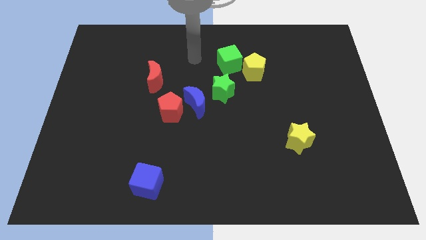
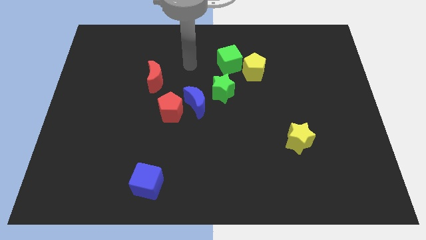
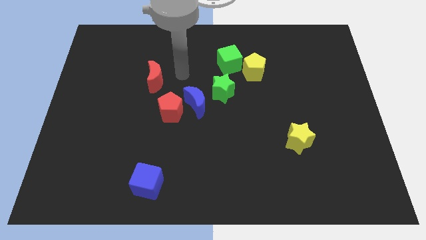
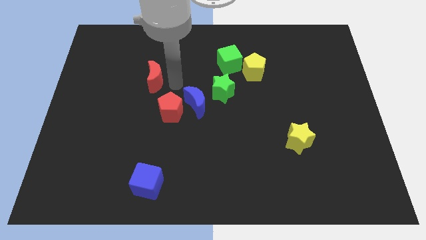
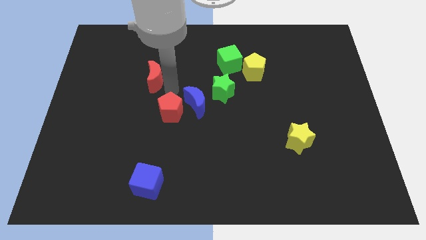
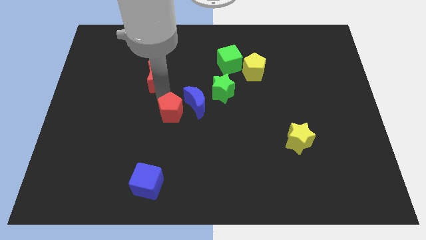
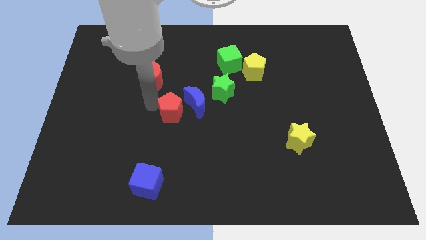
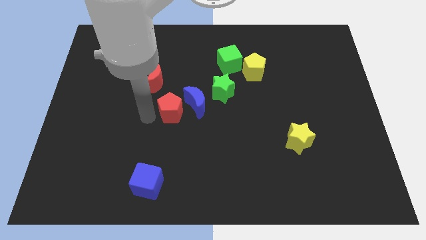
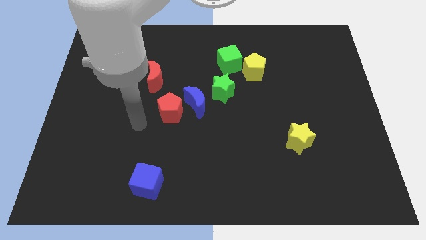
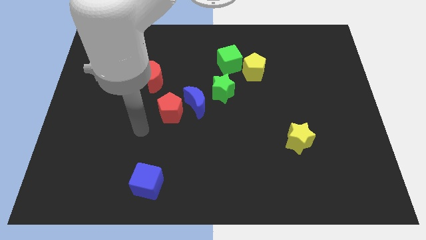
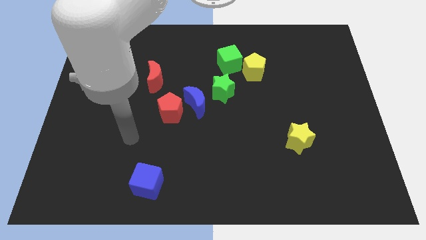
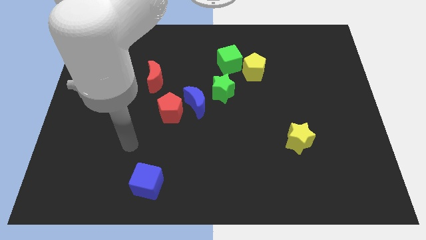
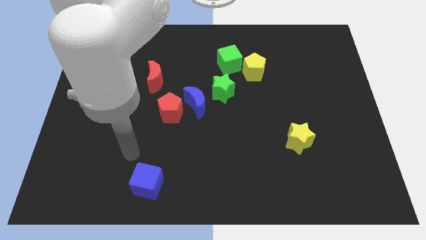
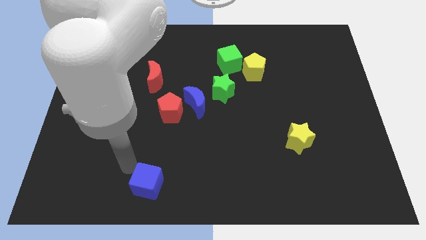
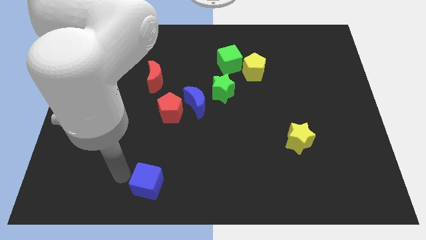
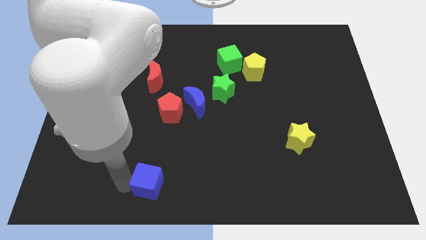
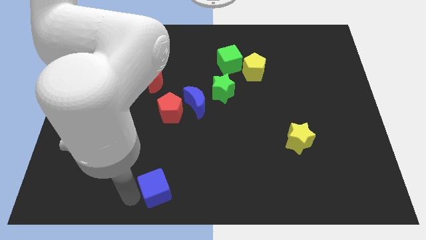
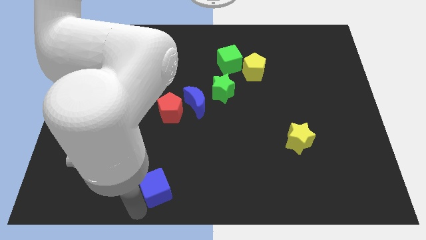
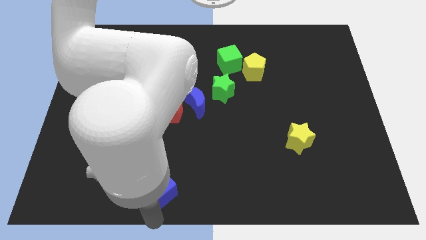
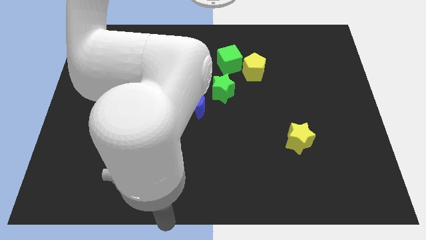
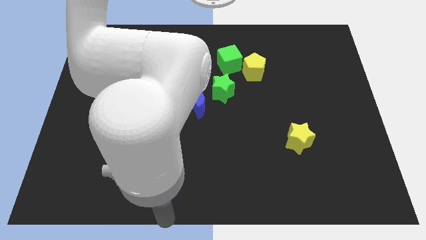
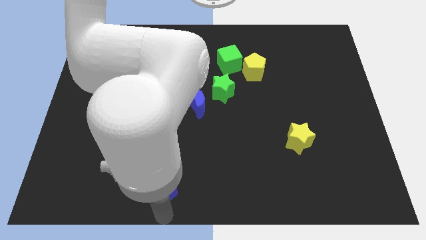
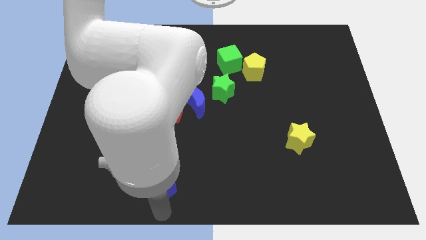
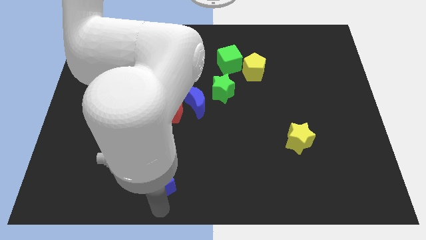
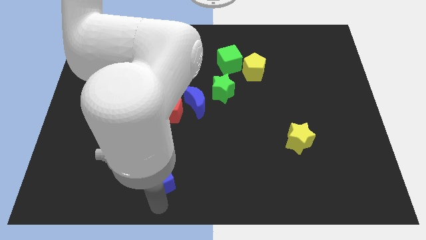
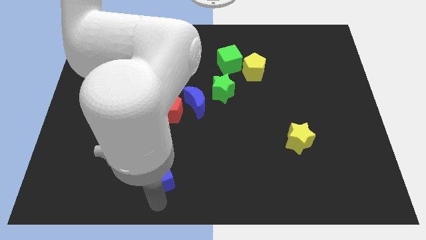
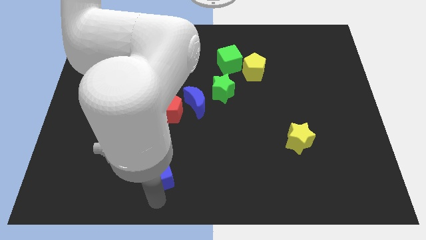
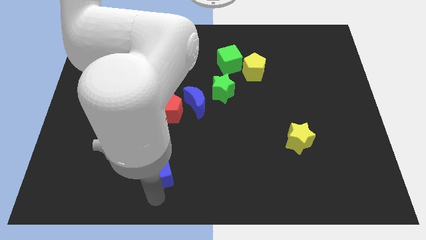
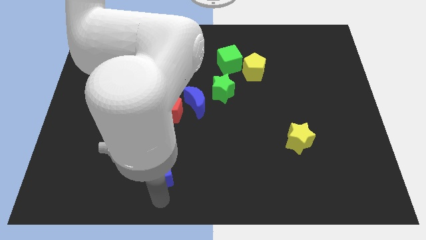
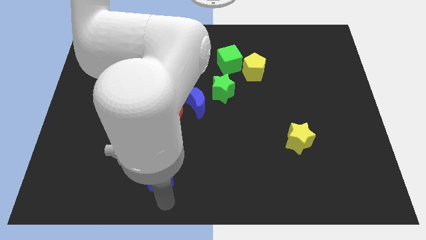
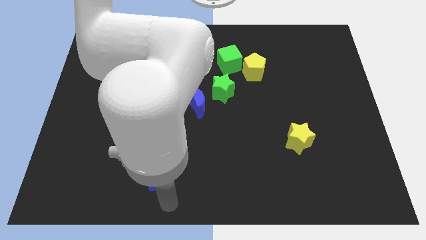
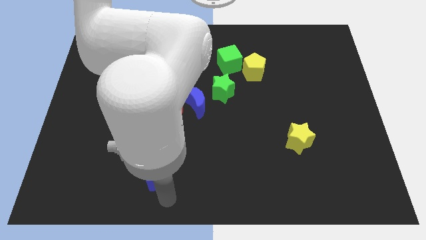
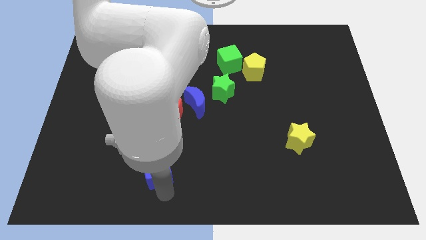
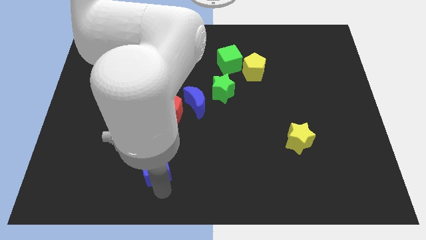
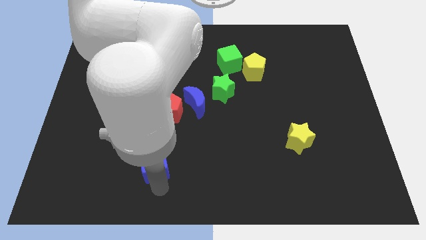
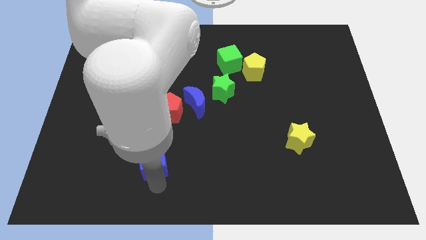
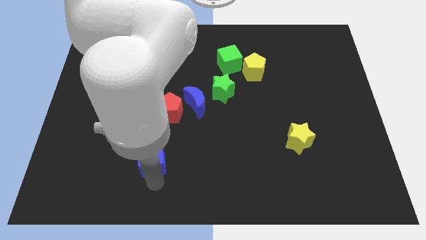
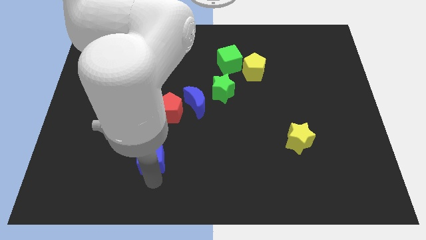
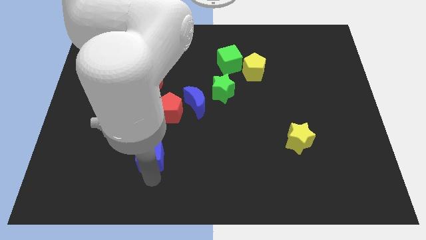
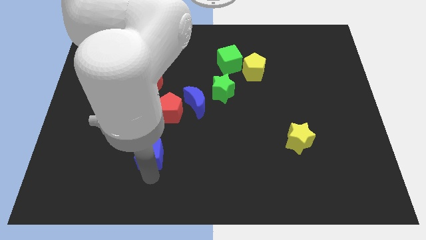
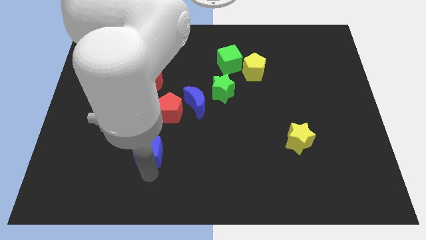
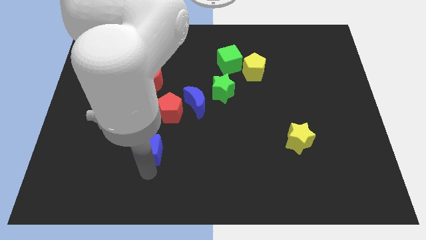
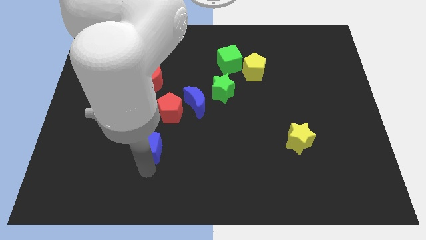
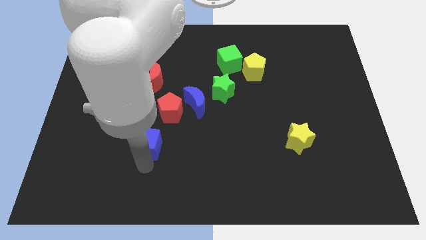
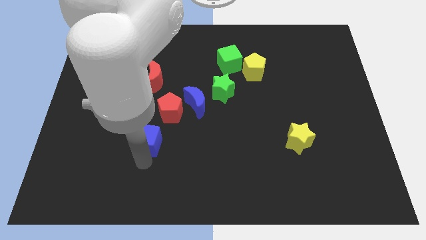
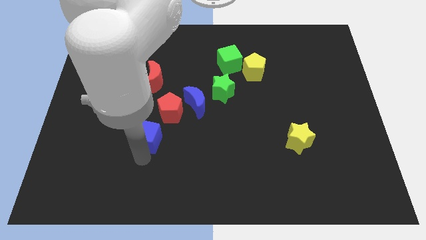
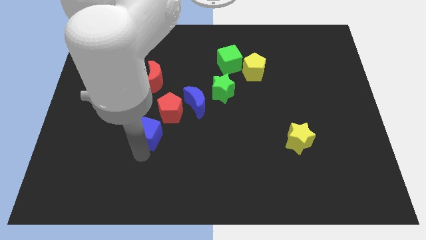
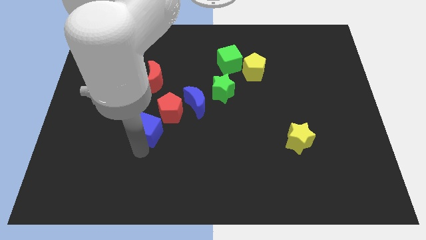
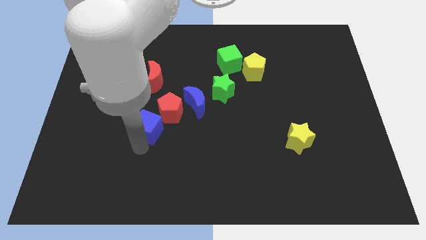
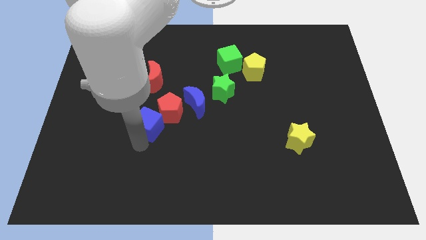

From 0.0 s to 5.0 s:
slide the blue cube close to the red pentagon

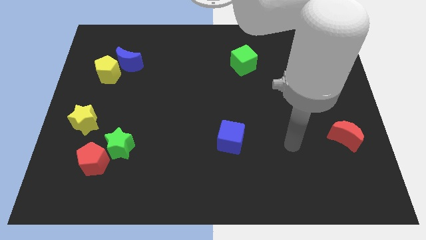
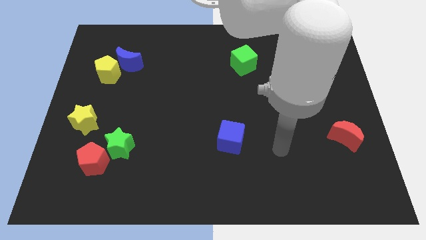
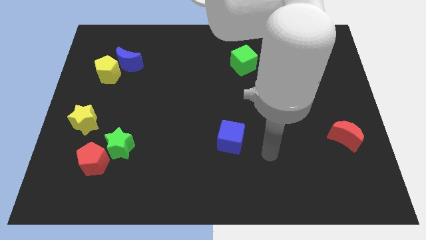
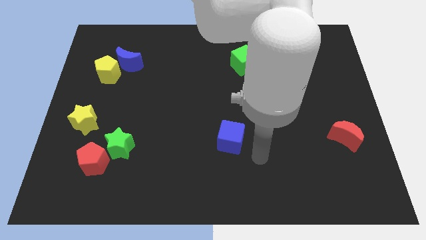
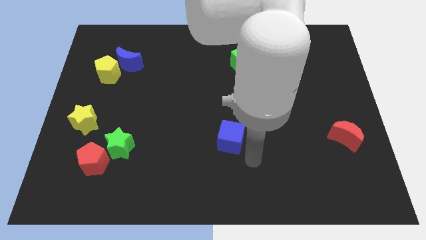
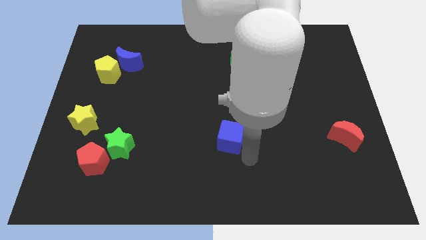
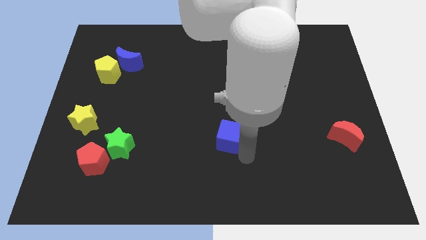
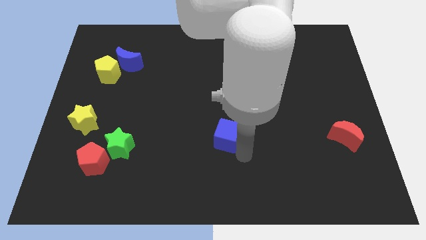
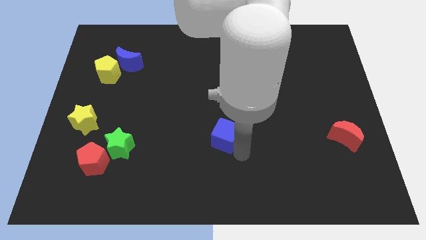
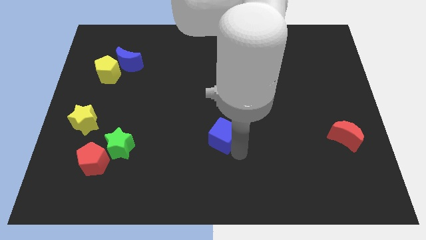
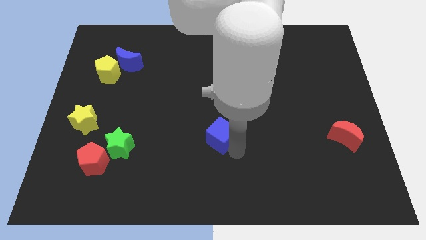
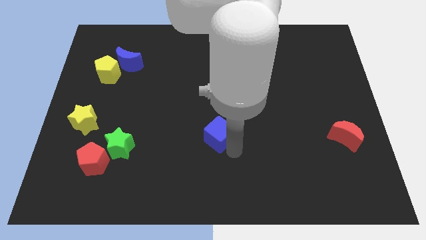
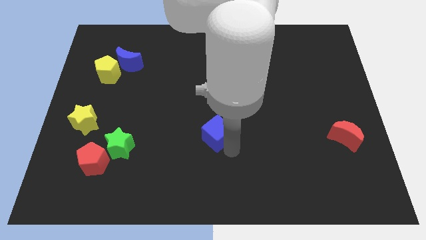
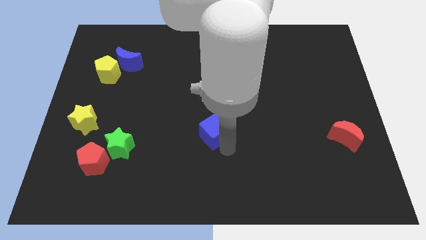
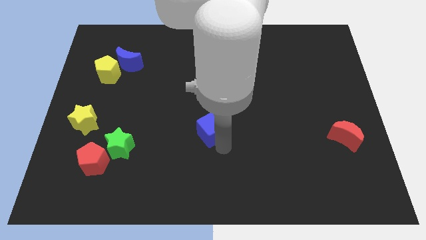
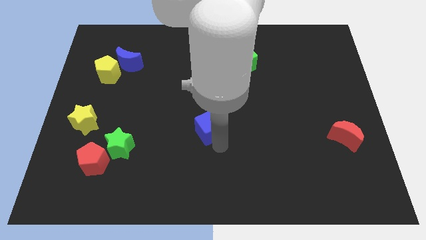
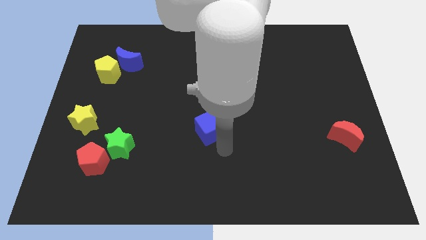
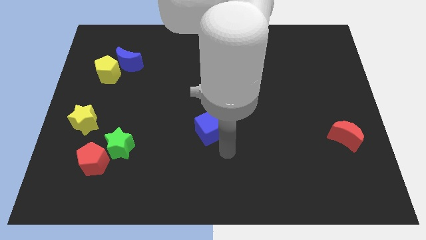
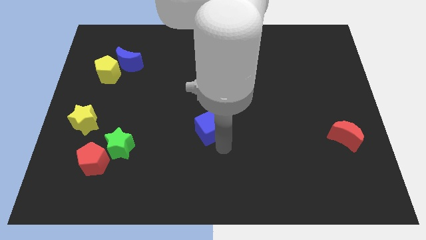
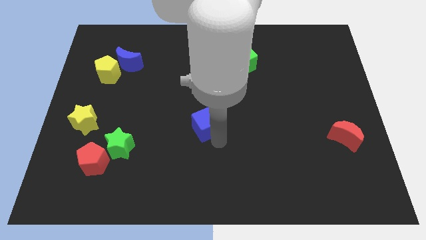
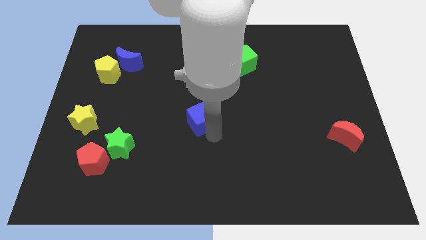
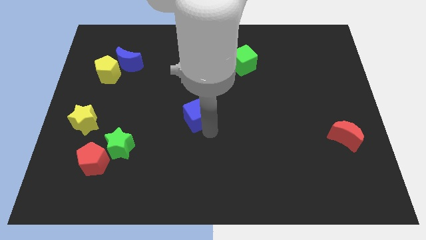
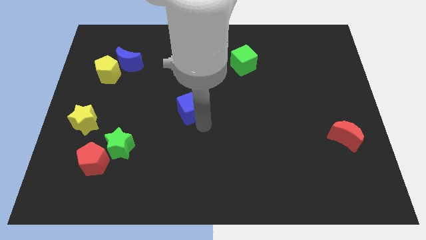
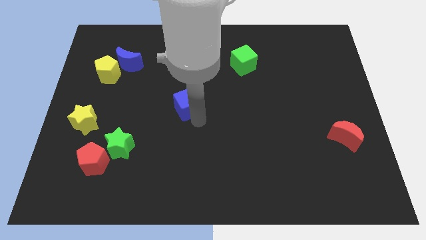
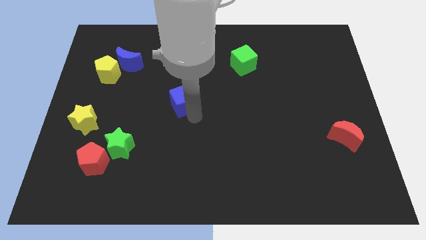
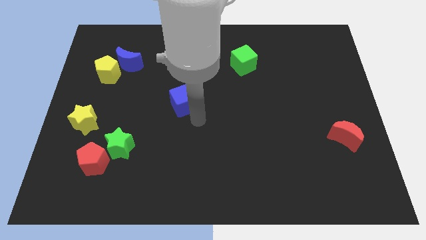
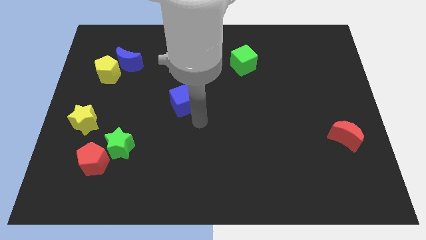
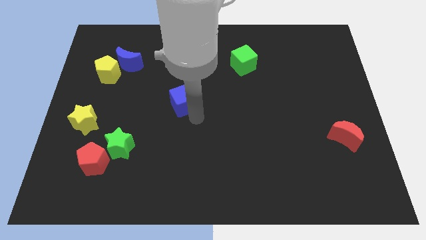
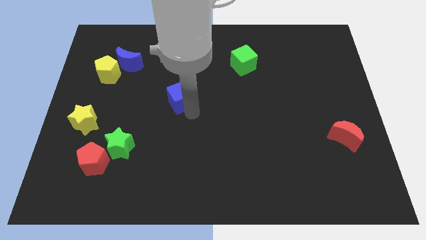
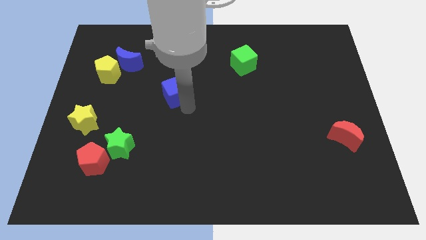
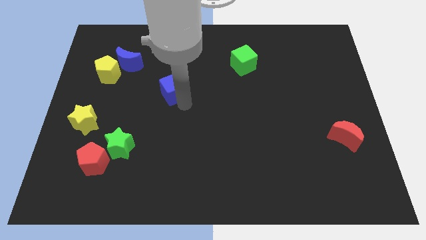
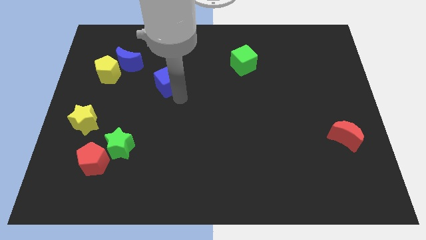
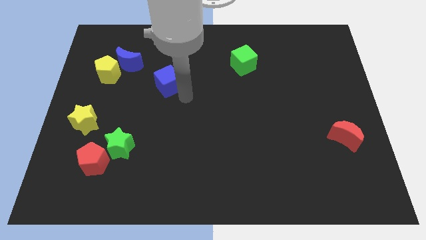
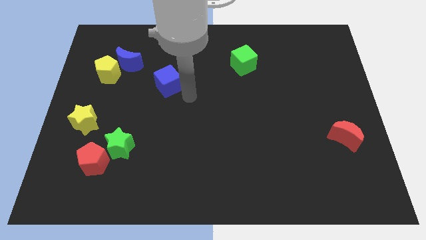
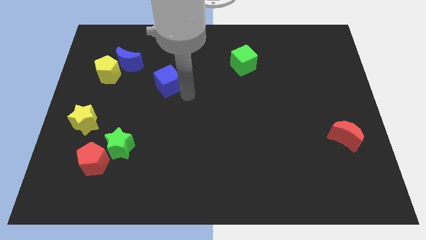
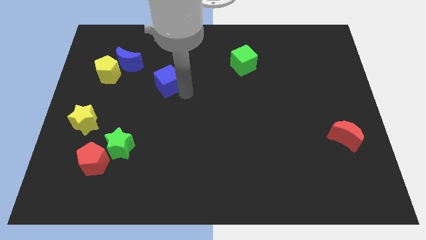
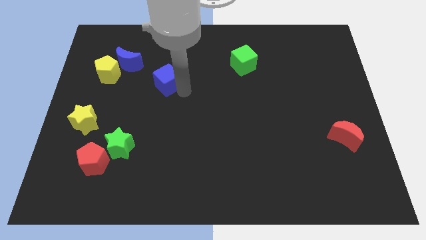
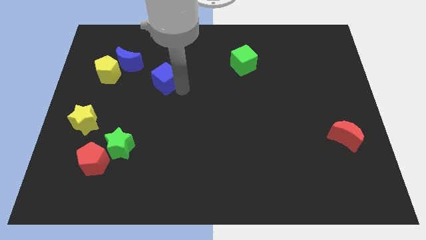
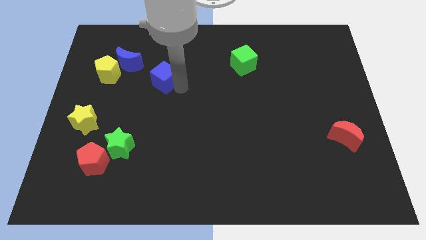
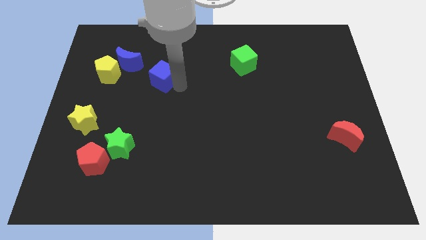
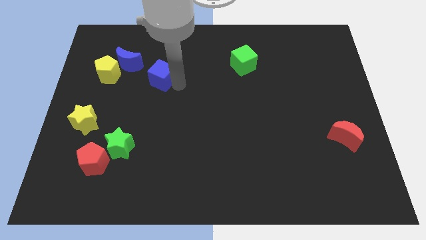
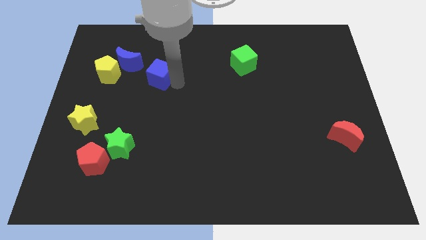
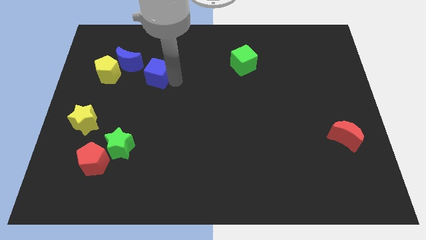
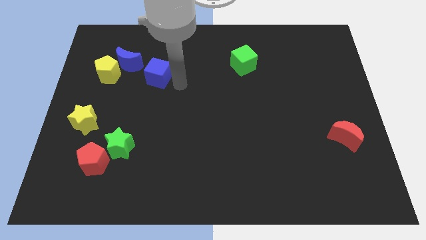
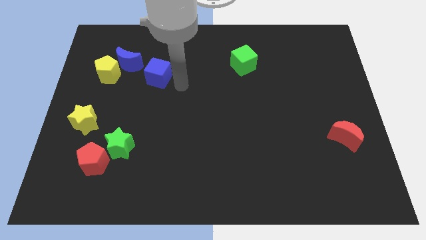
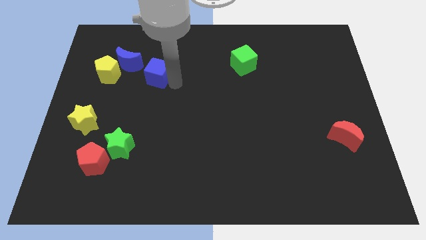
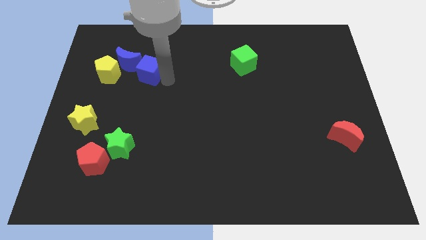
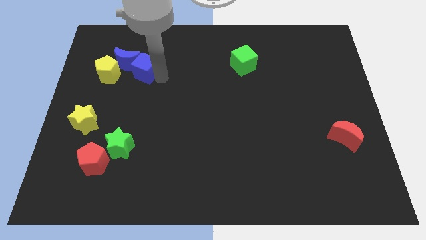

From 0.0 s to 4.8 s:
put the blue cube towards the blue moon
